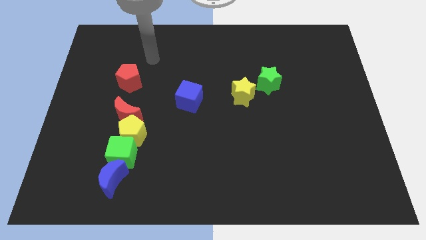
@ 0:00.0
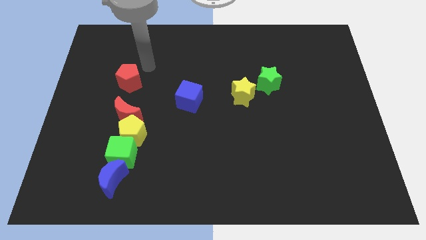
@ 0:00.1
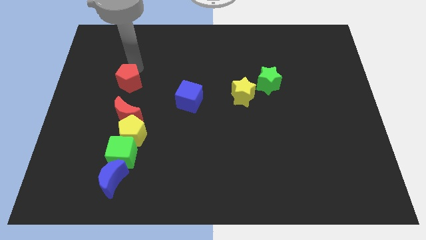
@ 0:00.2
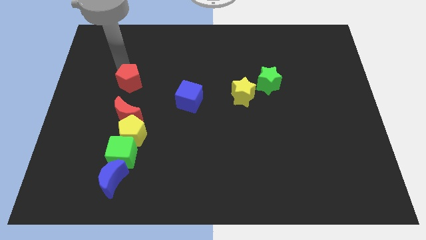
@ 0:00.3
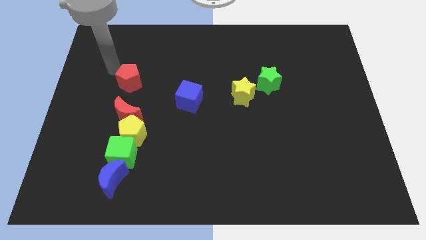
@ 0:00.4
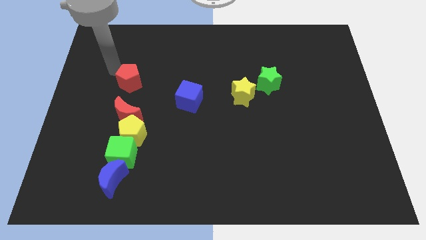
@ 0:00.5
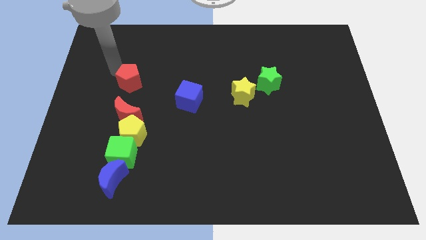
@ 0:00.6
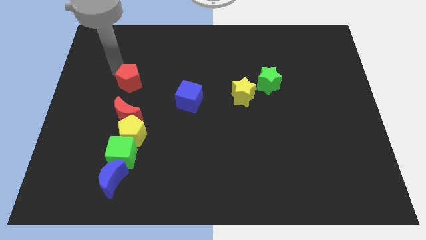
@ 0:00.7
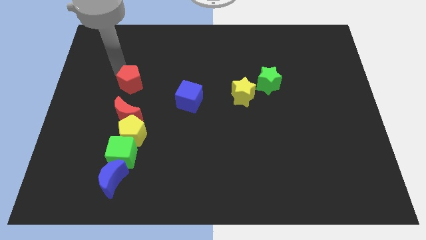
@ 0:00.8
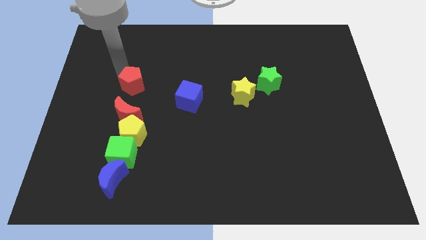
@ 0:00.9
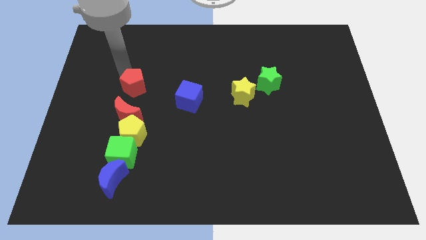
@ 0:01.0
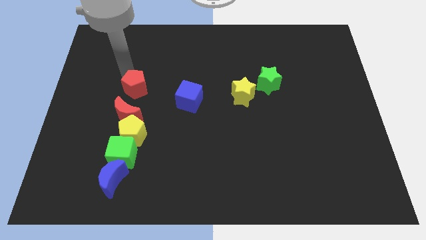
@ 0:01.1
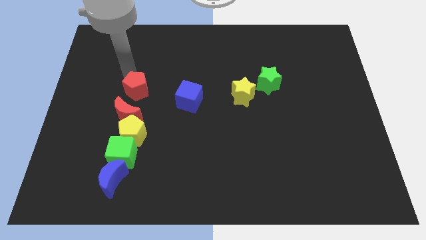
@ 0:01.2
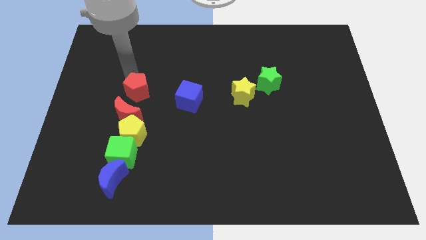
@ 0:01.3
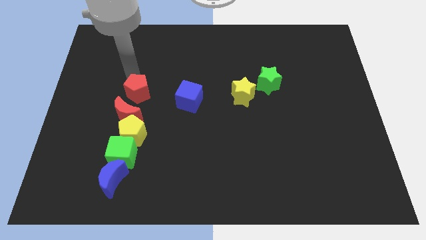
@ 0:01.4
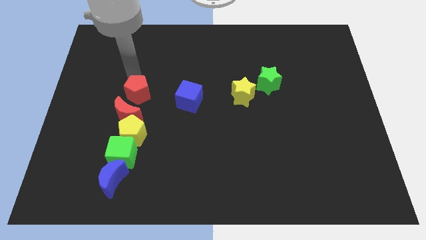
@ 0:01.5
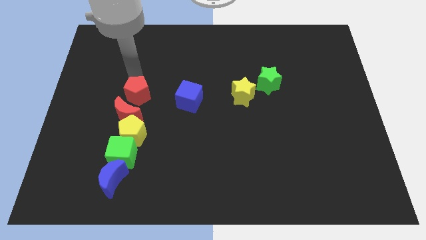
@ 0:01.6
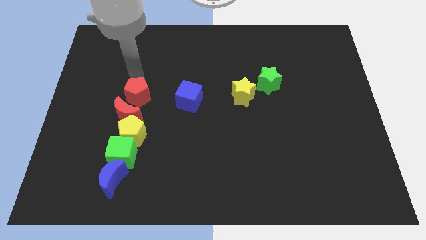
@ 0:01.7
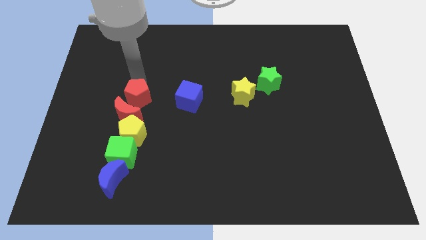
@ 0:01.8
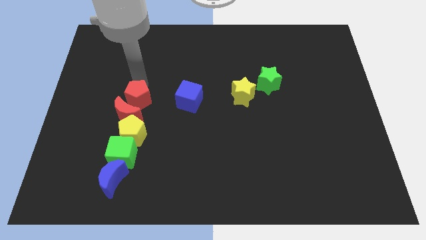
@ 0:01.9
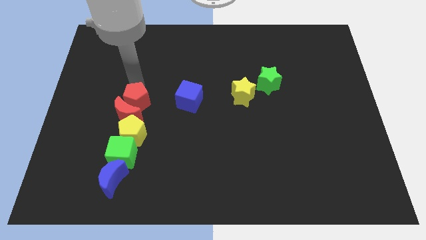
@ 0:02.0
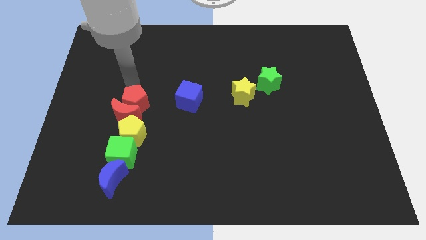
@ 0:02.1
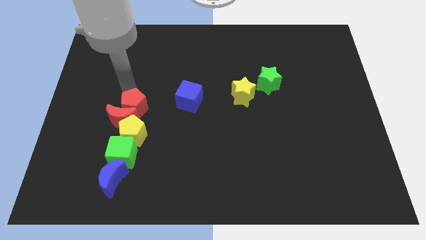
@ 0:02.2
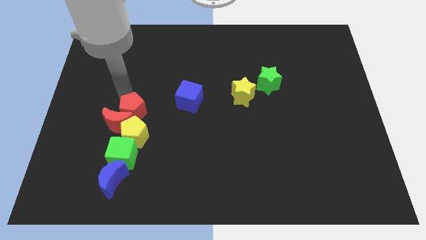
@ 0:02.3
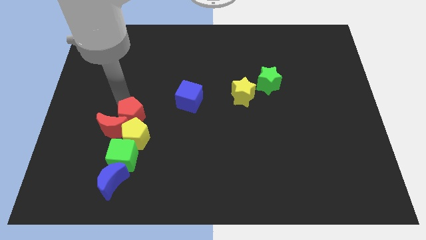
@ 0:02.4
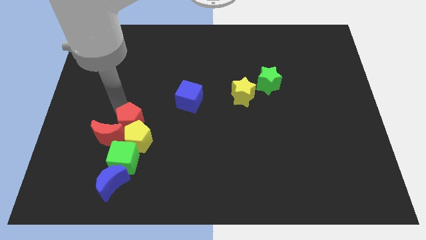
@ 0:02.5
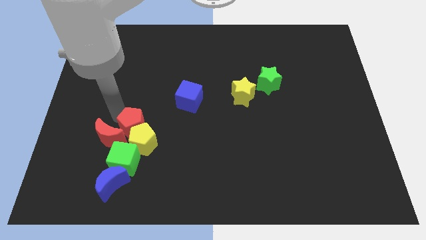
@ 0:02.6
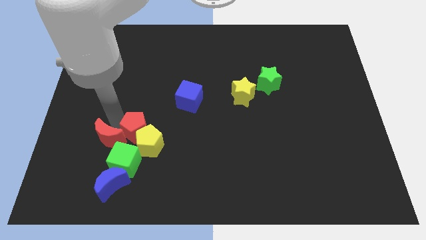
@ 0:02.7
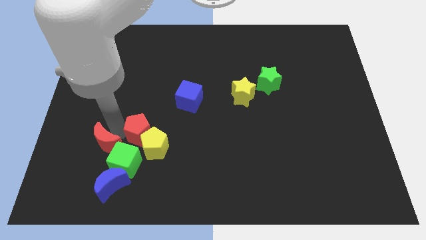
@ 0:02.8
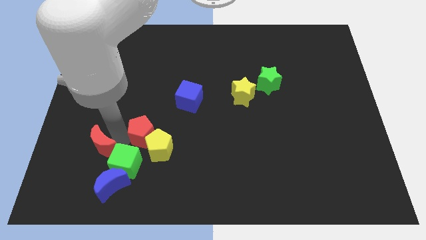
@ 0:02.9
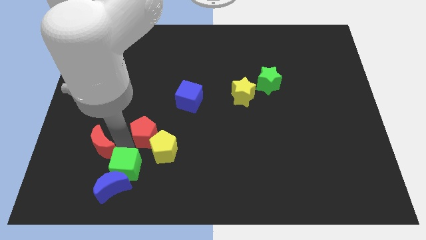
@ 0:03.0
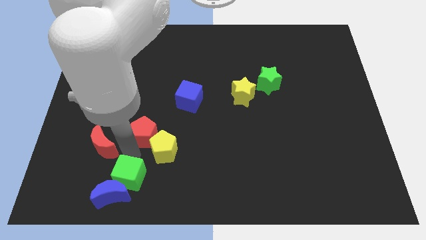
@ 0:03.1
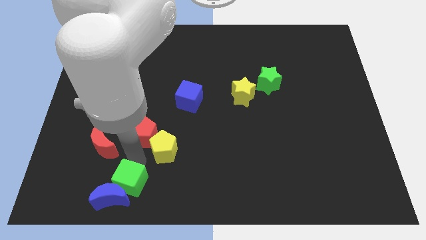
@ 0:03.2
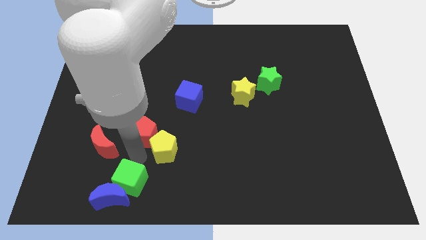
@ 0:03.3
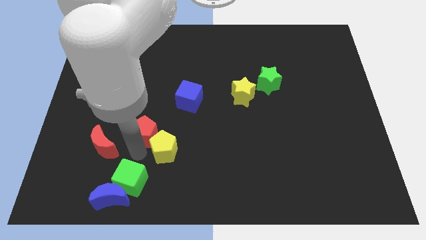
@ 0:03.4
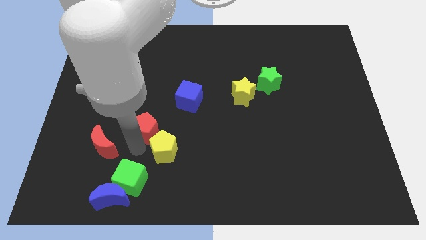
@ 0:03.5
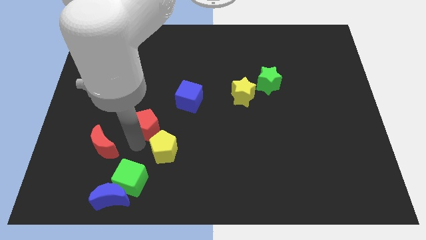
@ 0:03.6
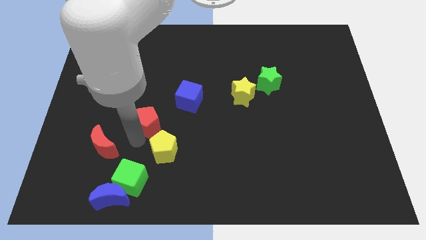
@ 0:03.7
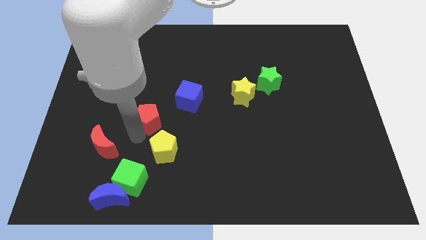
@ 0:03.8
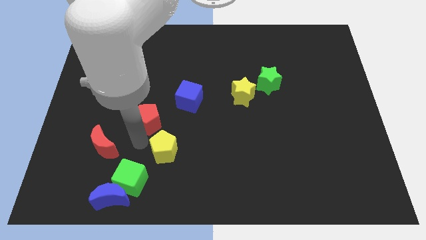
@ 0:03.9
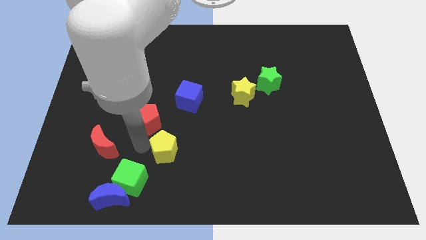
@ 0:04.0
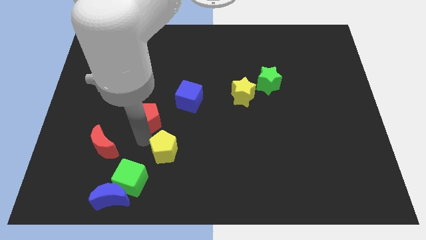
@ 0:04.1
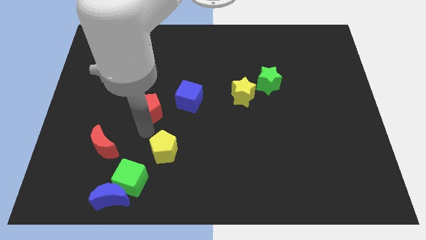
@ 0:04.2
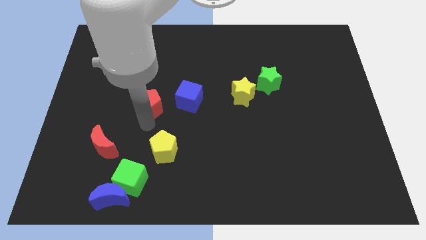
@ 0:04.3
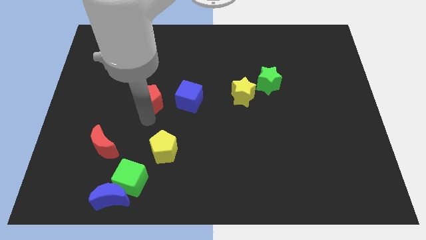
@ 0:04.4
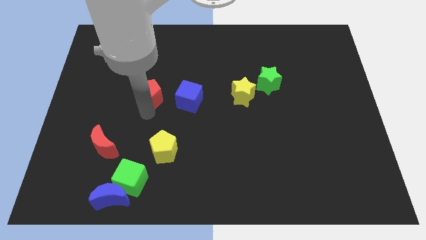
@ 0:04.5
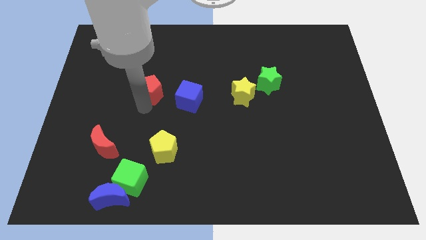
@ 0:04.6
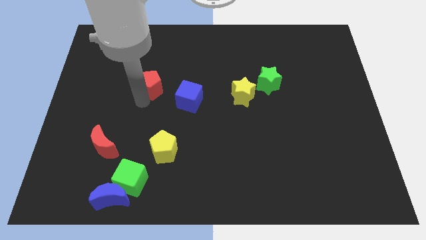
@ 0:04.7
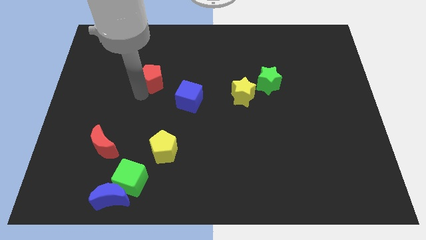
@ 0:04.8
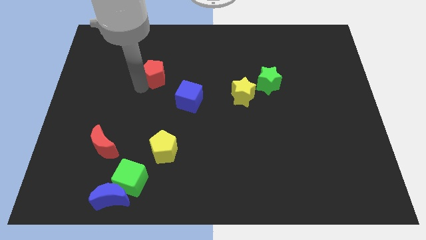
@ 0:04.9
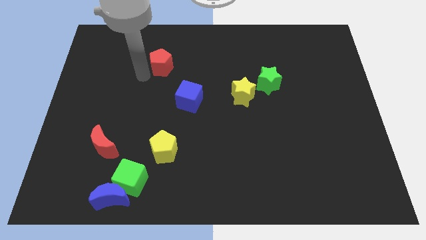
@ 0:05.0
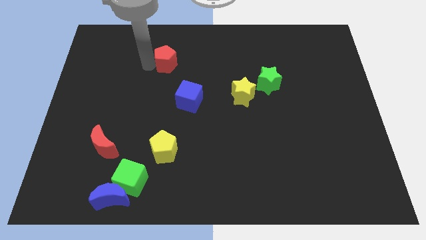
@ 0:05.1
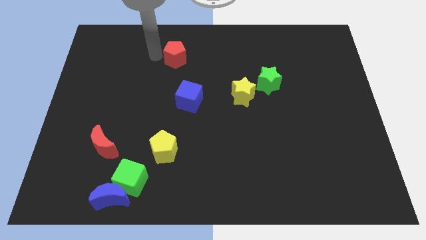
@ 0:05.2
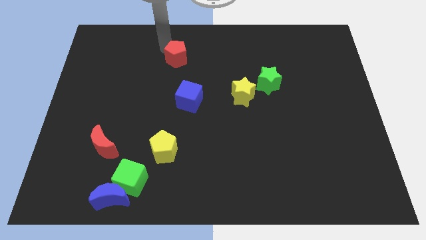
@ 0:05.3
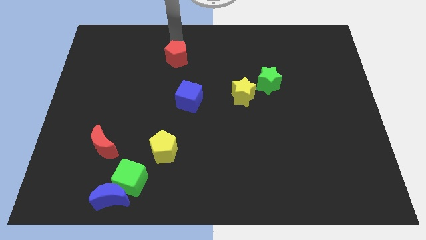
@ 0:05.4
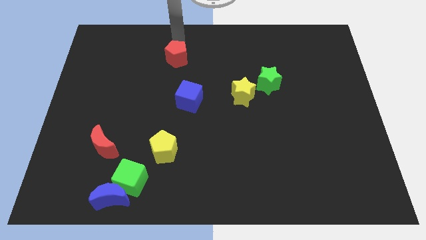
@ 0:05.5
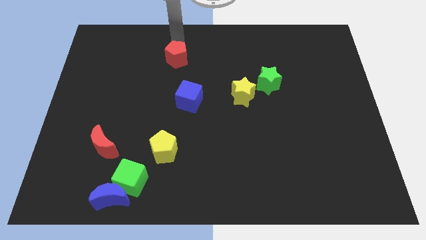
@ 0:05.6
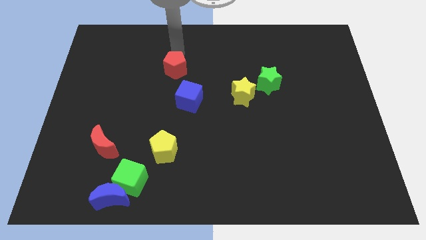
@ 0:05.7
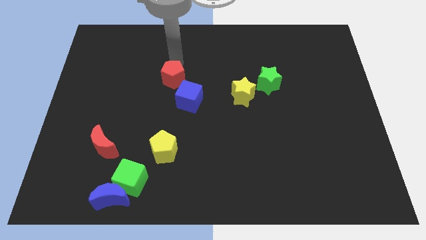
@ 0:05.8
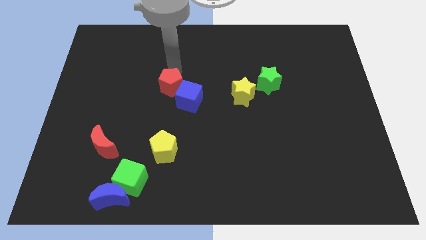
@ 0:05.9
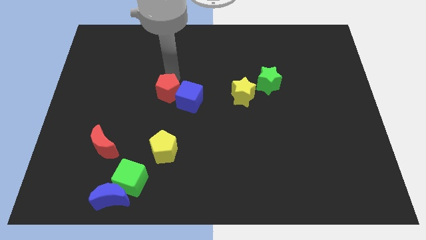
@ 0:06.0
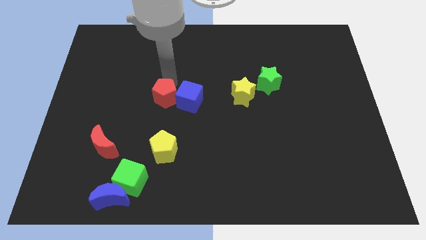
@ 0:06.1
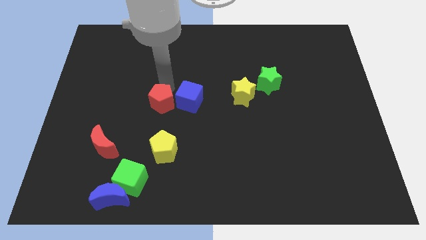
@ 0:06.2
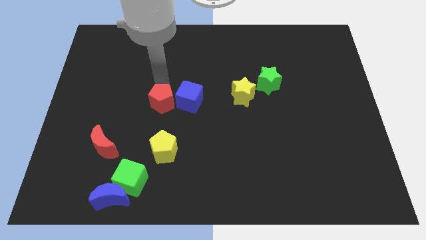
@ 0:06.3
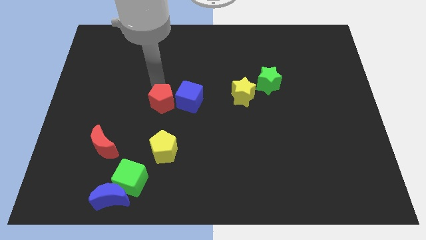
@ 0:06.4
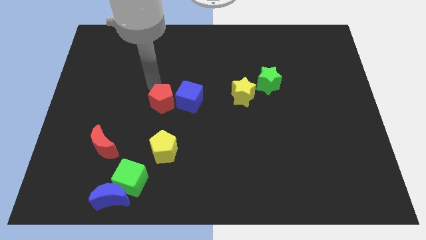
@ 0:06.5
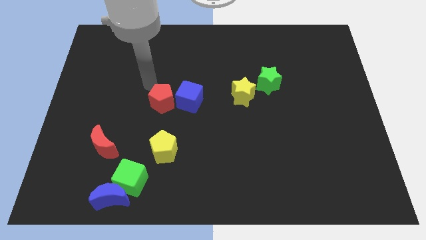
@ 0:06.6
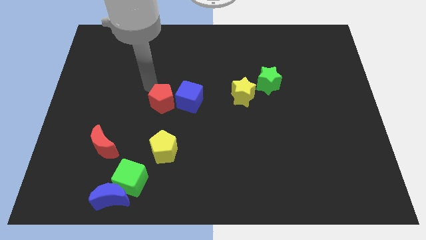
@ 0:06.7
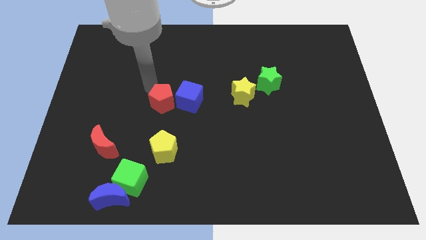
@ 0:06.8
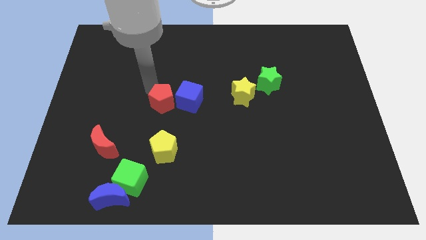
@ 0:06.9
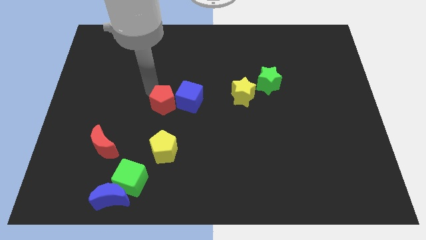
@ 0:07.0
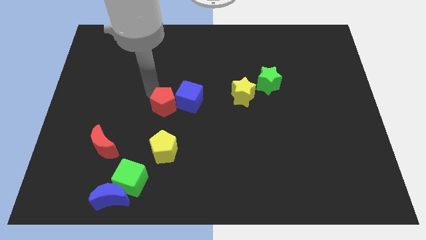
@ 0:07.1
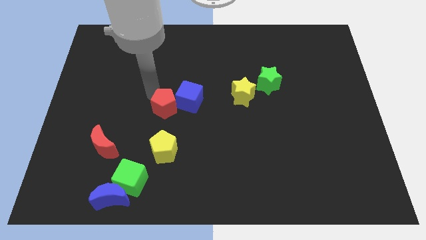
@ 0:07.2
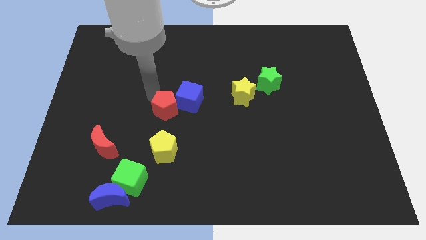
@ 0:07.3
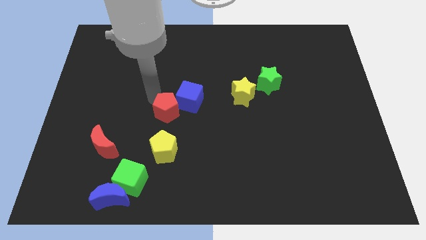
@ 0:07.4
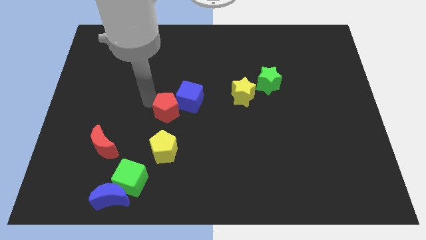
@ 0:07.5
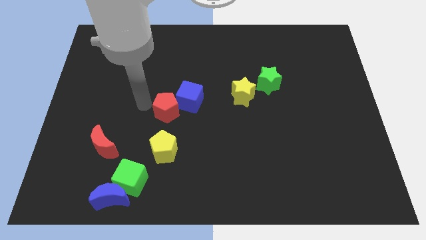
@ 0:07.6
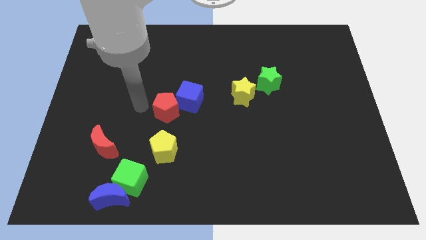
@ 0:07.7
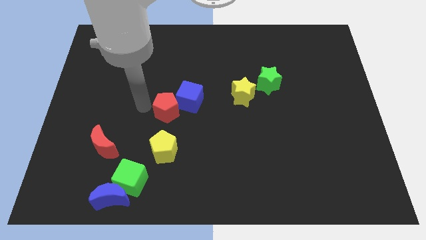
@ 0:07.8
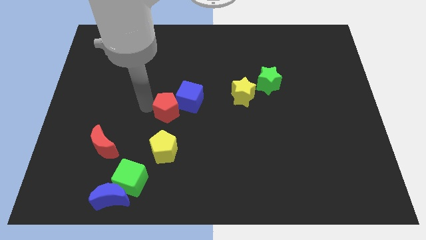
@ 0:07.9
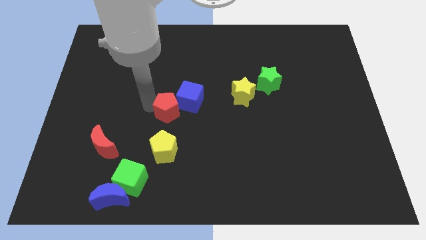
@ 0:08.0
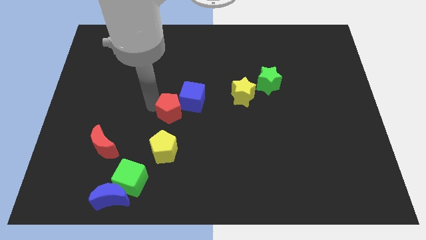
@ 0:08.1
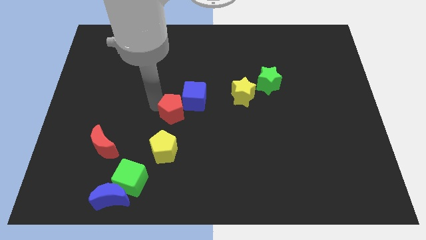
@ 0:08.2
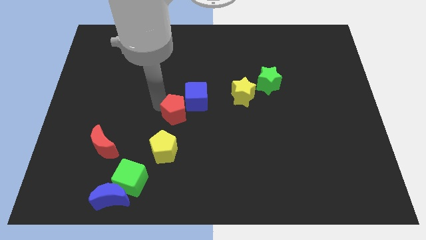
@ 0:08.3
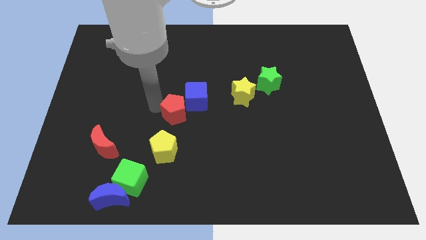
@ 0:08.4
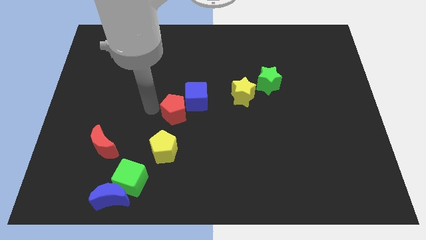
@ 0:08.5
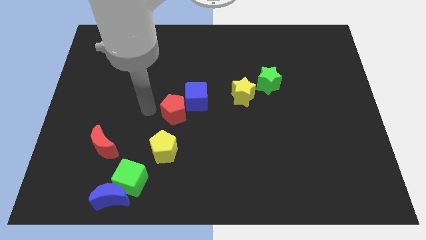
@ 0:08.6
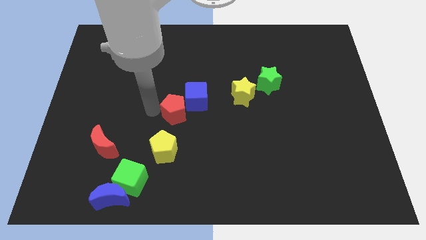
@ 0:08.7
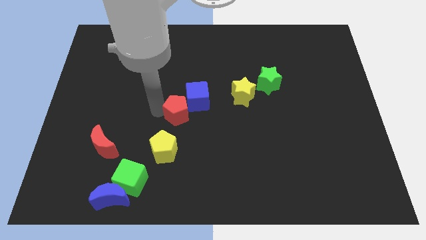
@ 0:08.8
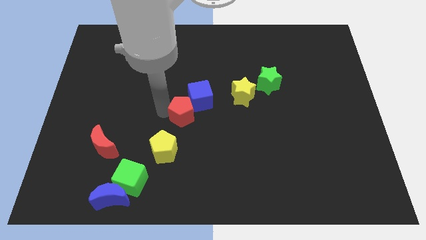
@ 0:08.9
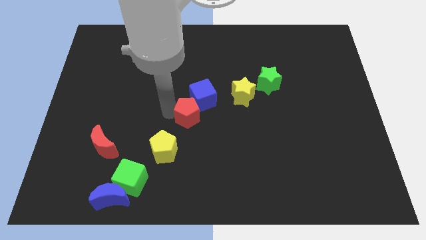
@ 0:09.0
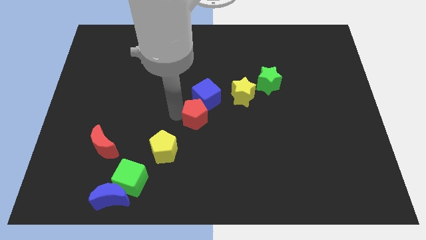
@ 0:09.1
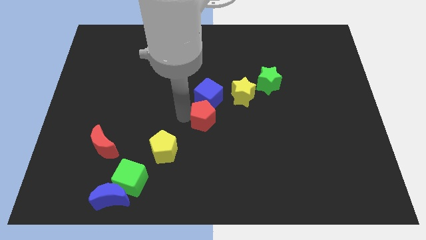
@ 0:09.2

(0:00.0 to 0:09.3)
put the red pentagon to the bottom left of the yellow star
